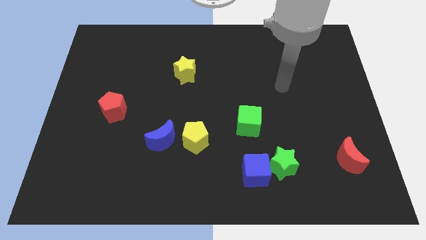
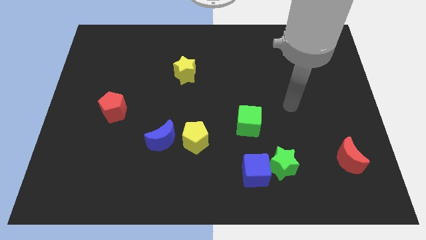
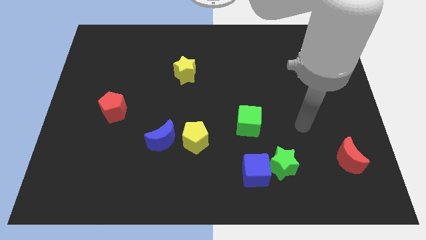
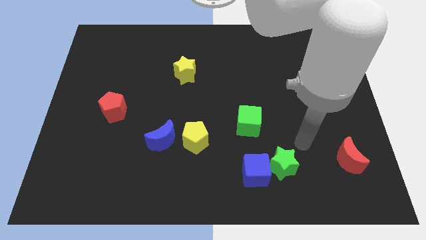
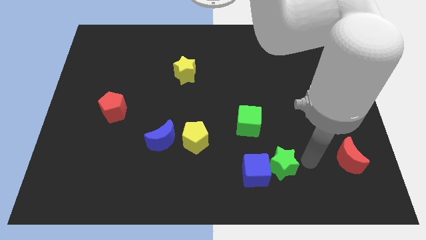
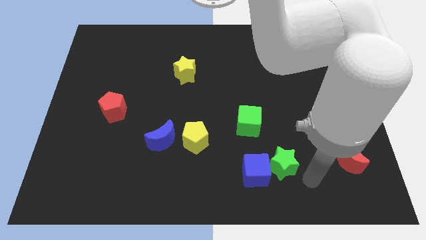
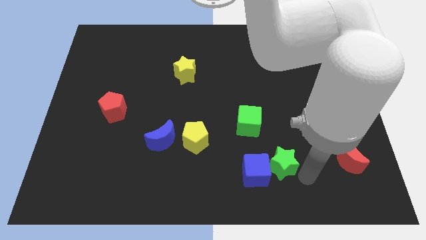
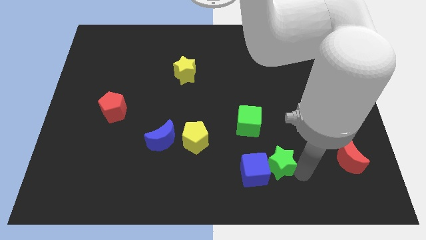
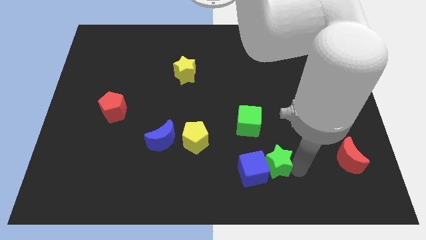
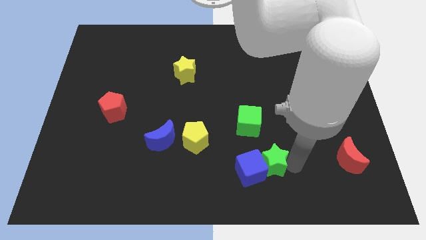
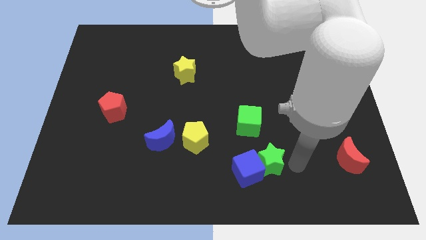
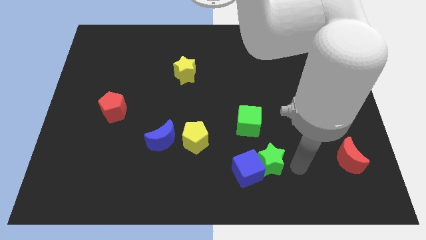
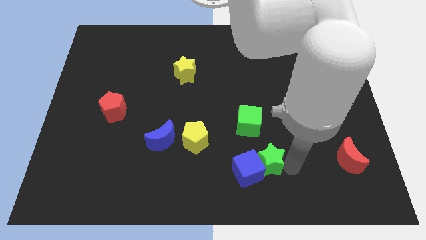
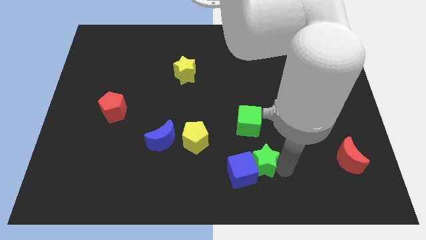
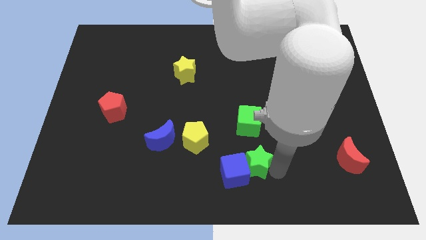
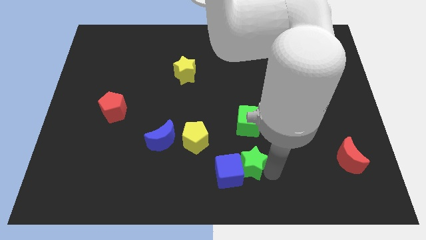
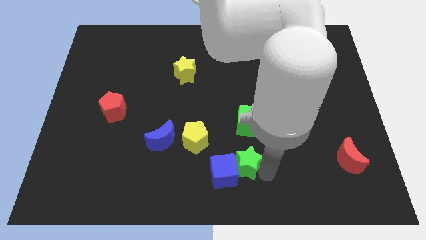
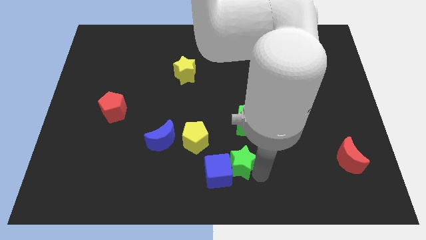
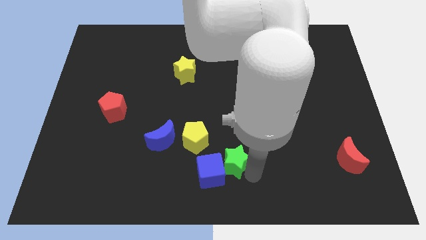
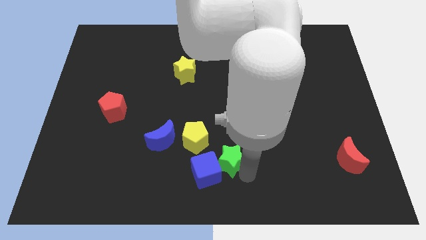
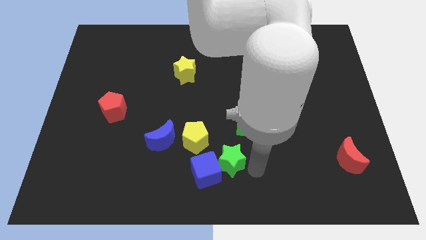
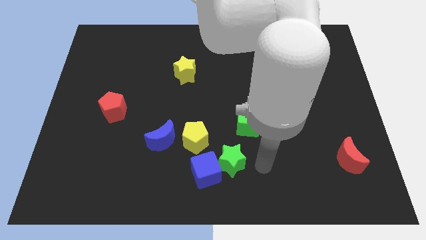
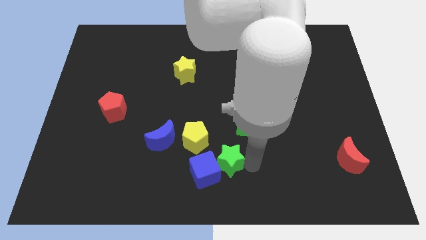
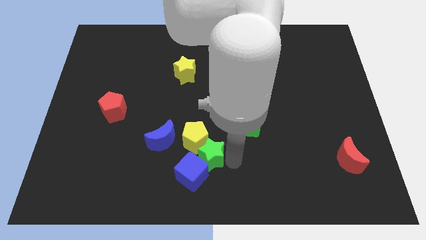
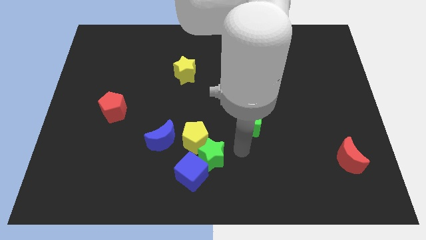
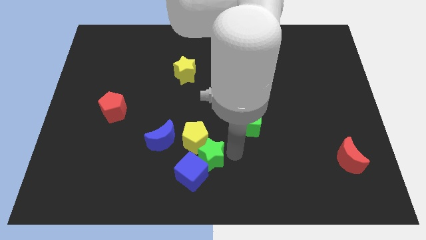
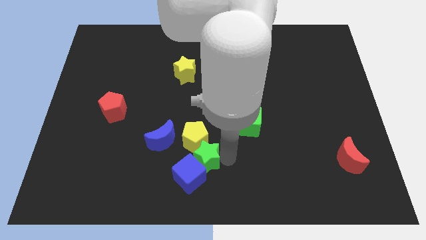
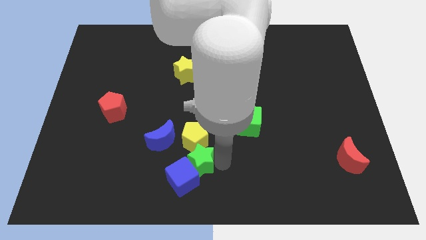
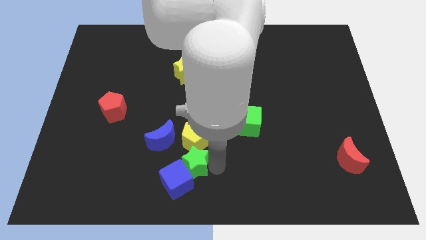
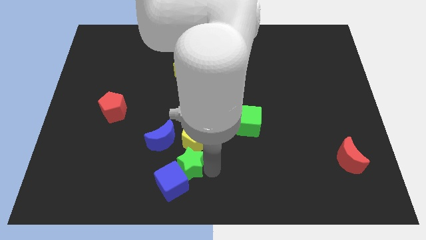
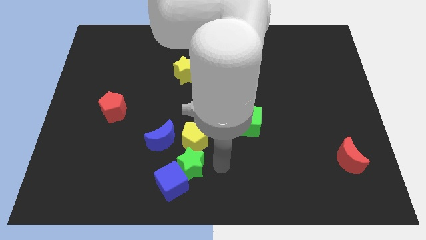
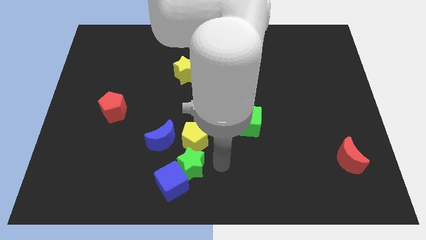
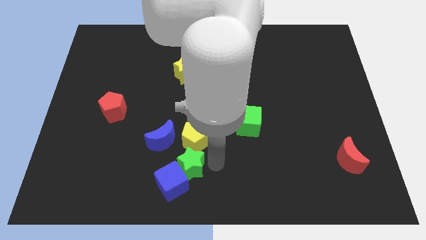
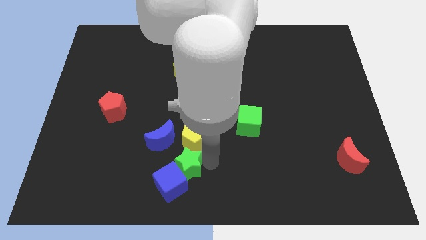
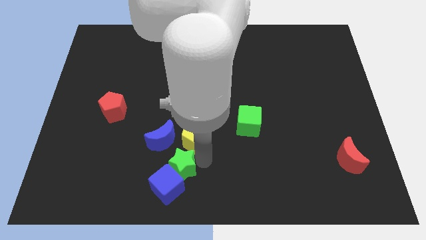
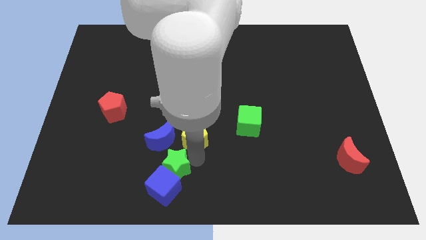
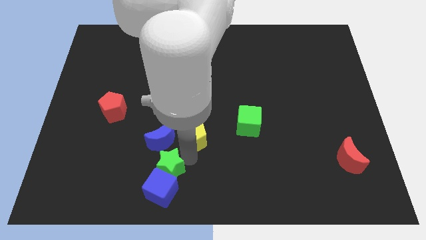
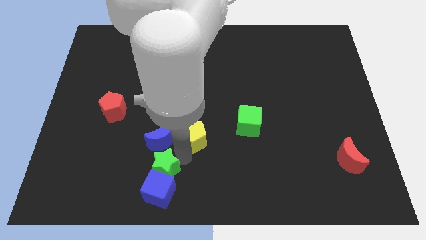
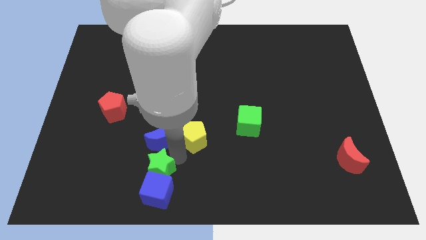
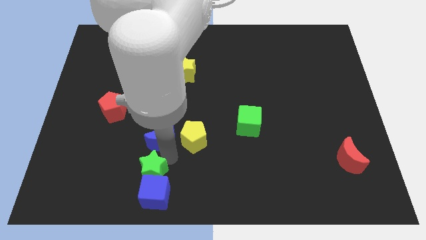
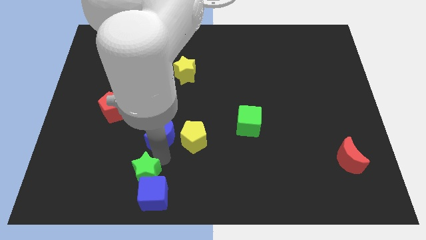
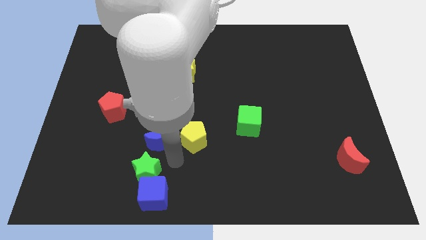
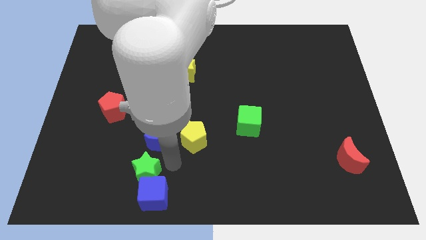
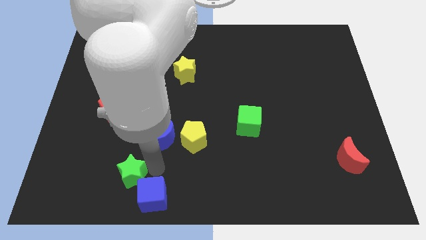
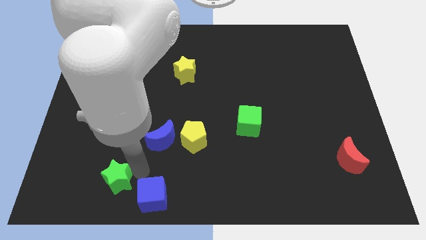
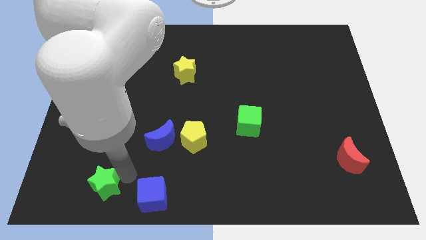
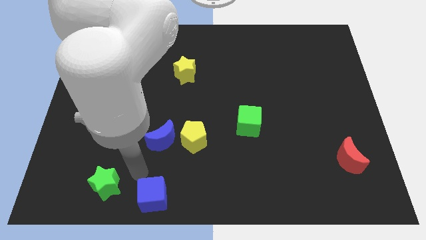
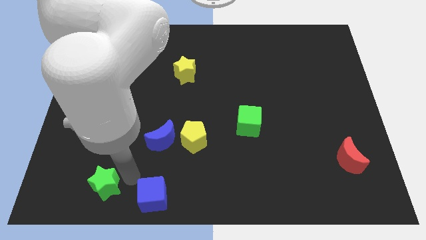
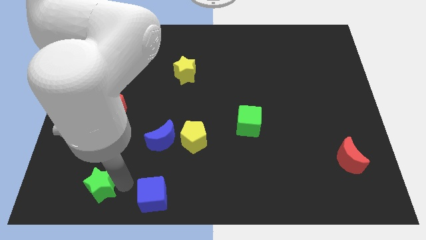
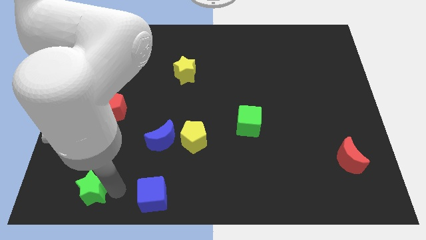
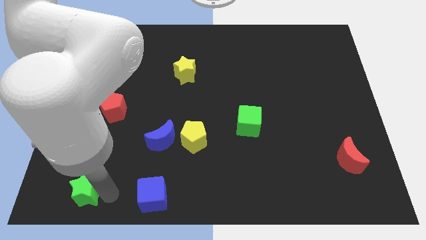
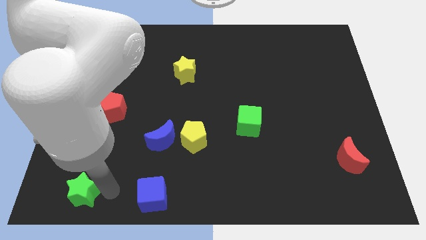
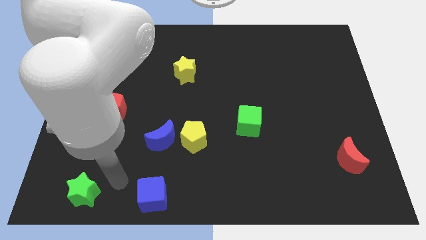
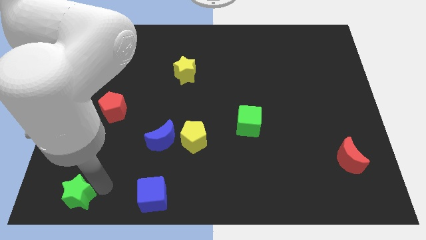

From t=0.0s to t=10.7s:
slide the green star to the bottom left corner

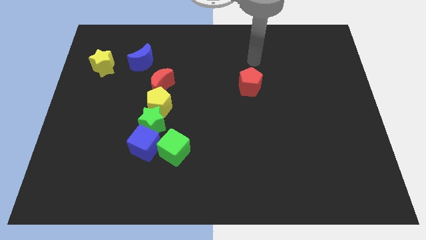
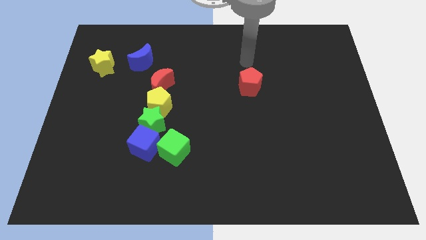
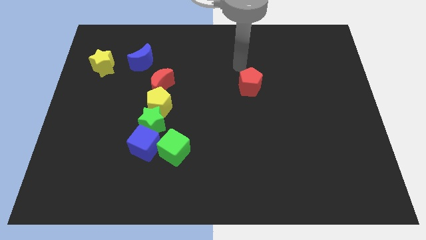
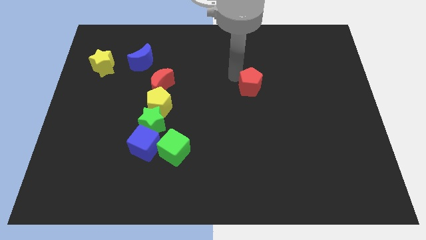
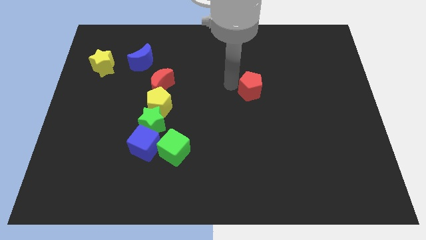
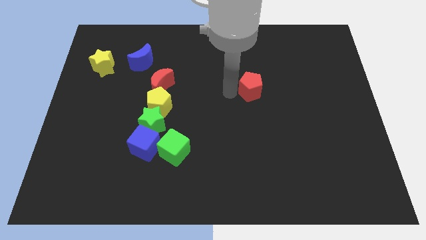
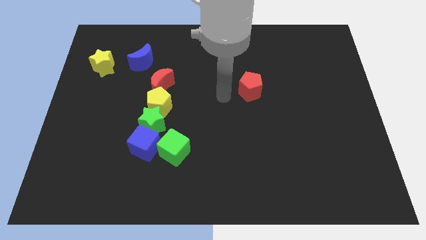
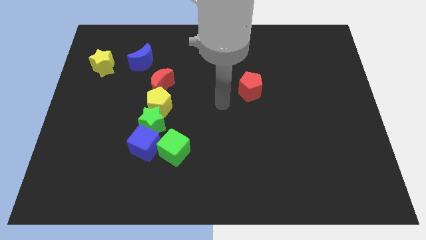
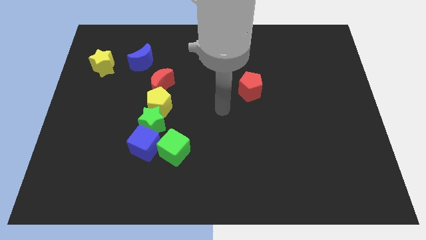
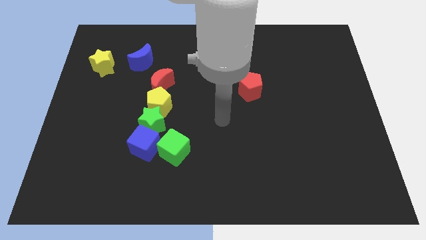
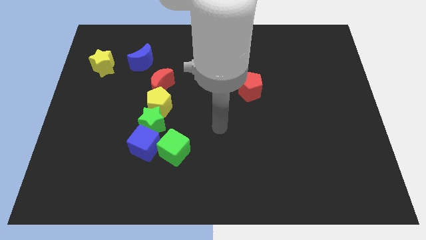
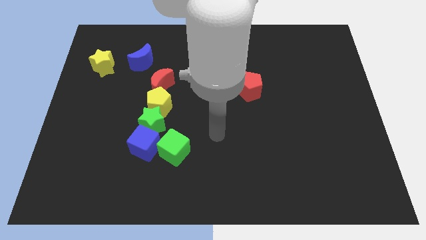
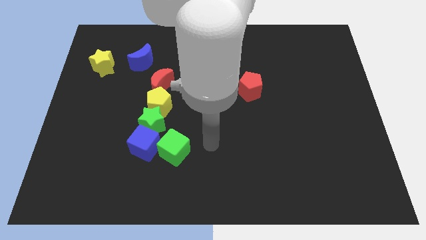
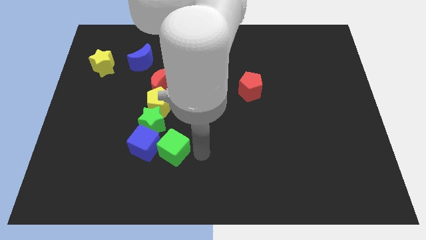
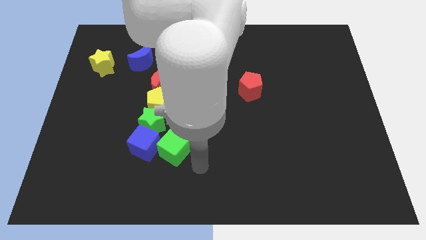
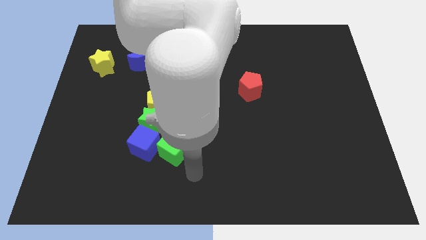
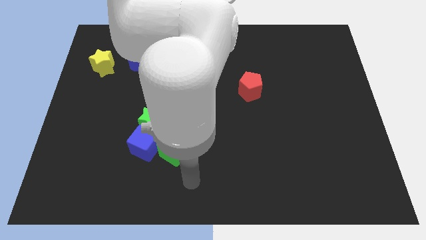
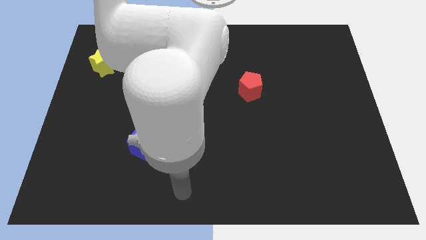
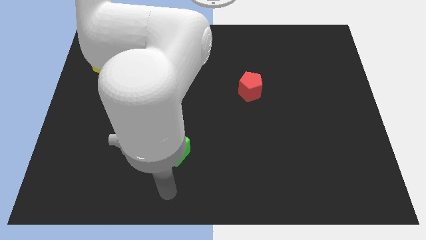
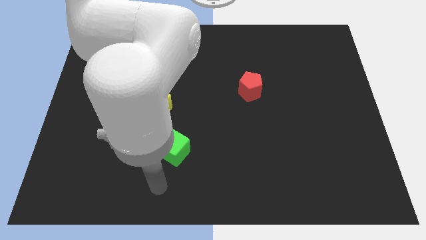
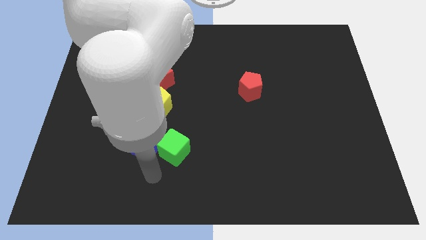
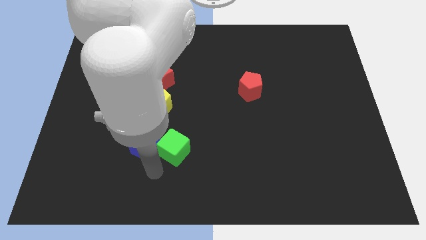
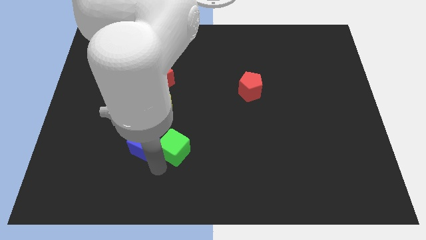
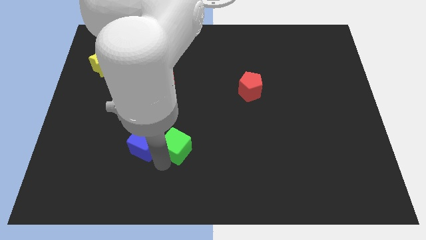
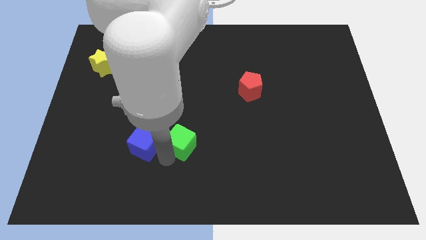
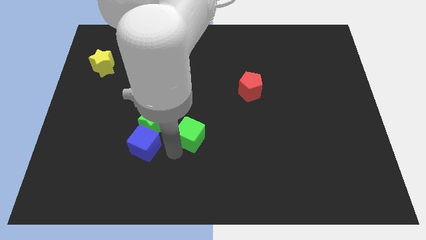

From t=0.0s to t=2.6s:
put the green cube to the center of the board
